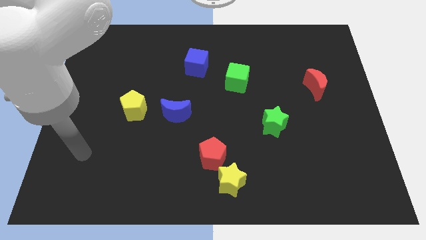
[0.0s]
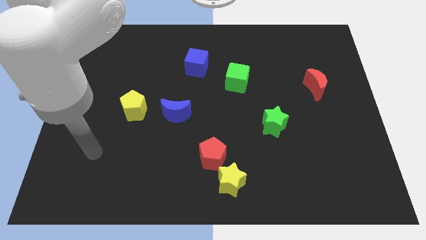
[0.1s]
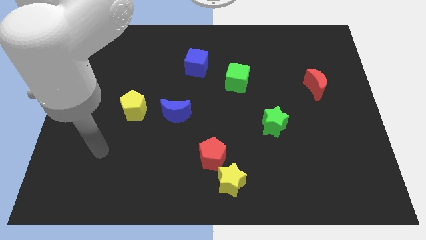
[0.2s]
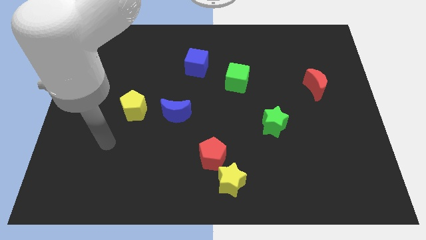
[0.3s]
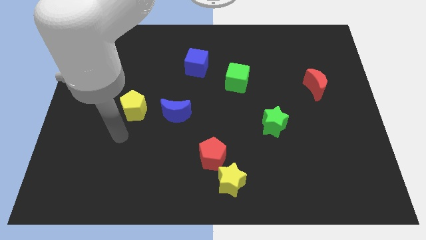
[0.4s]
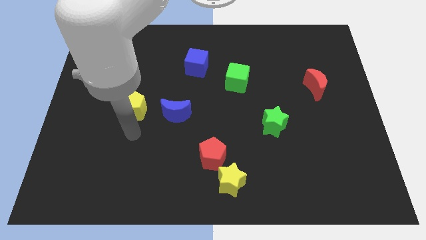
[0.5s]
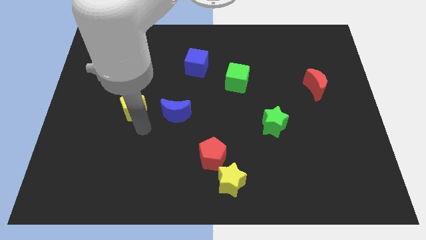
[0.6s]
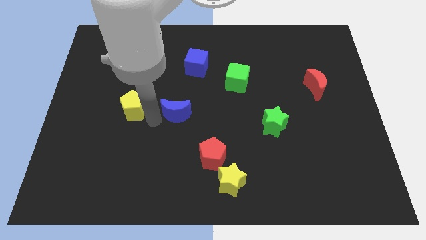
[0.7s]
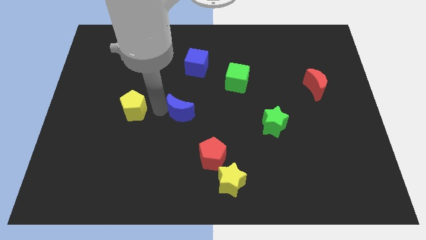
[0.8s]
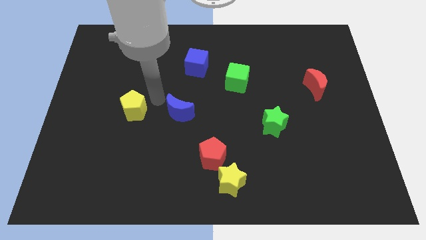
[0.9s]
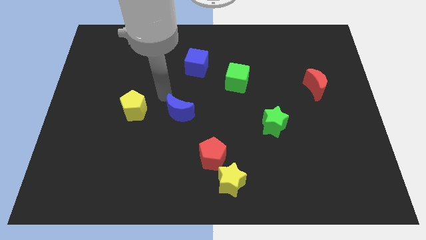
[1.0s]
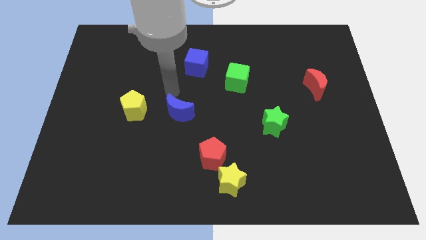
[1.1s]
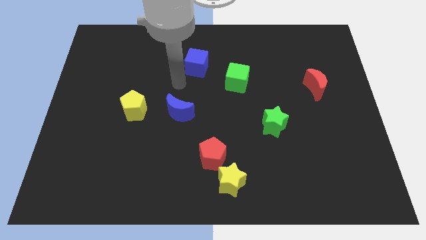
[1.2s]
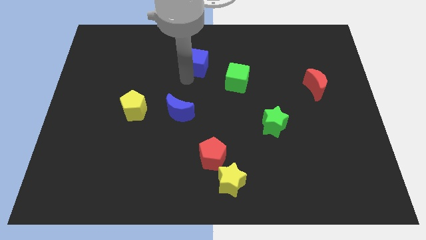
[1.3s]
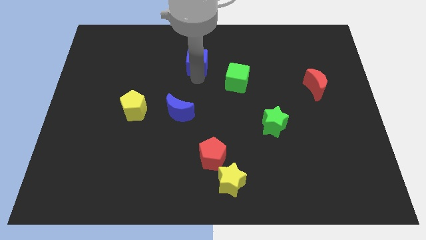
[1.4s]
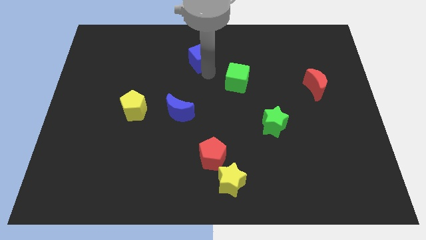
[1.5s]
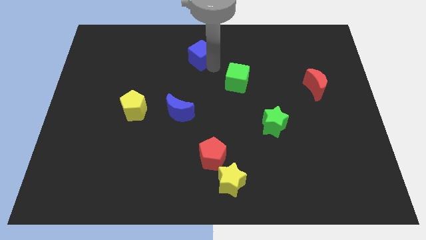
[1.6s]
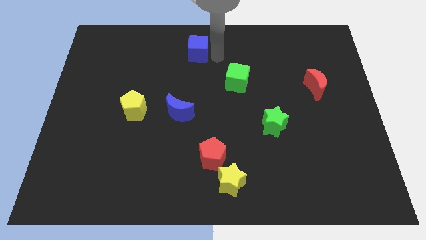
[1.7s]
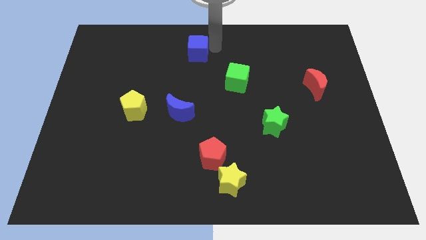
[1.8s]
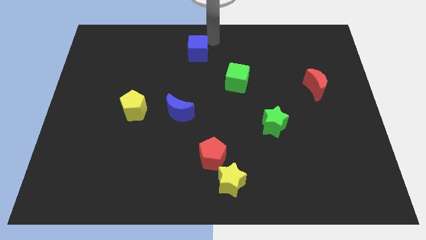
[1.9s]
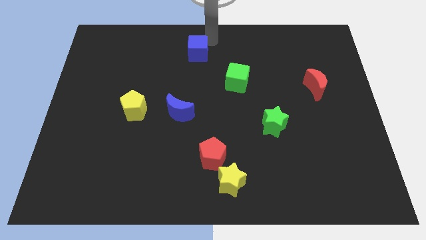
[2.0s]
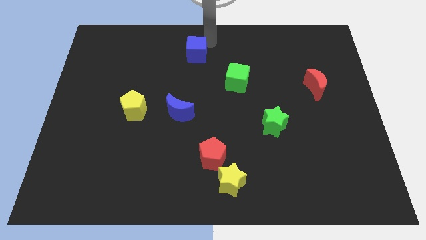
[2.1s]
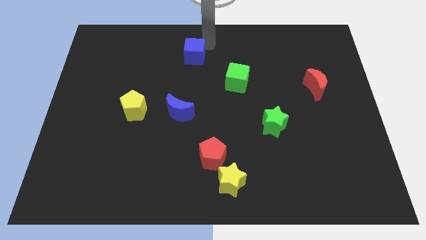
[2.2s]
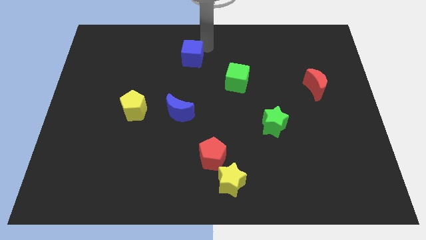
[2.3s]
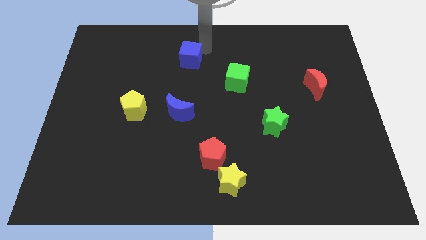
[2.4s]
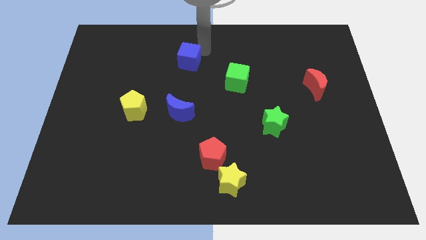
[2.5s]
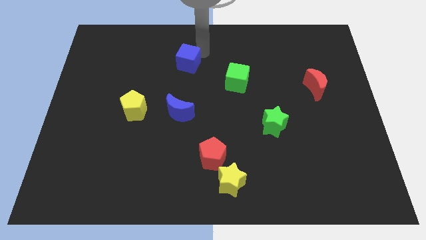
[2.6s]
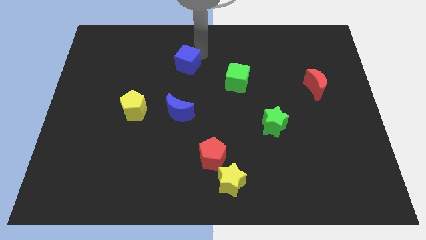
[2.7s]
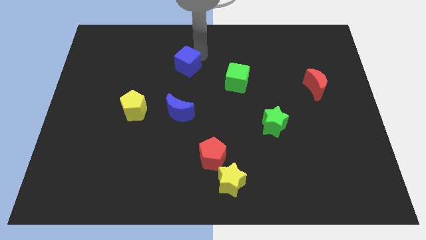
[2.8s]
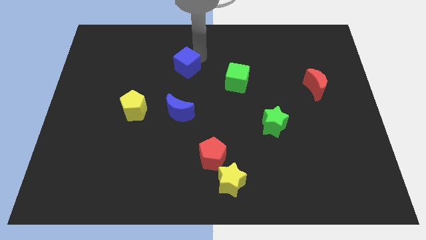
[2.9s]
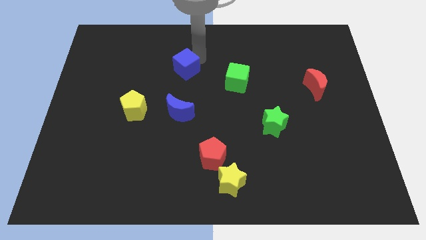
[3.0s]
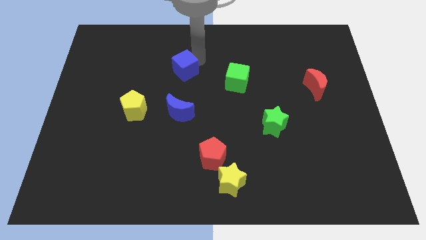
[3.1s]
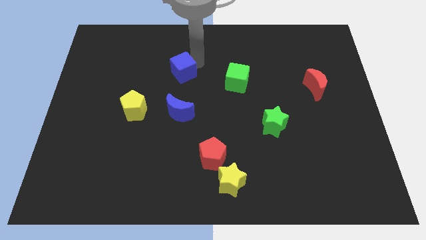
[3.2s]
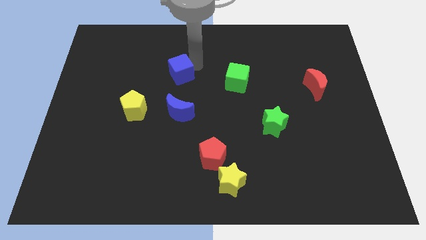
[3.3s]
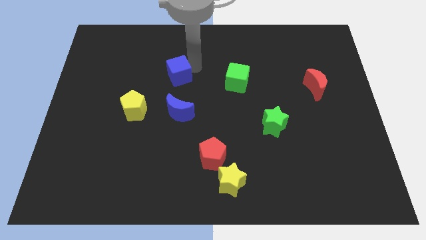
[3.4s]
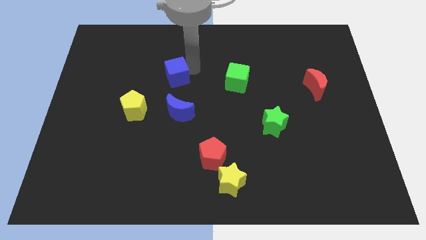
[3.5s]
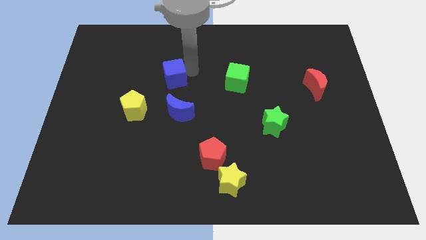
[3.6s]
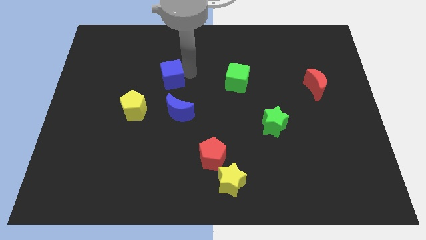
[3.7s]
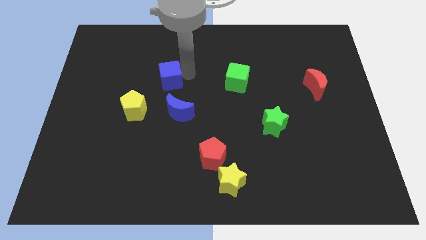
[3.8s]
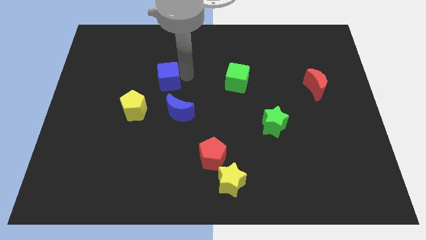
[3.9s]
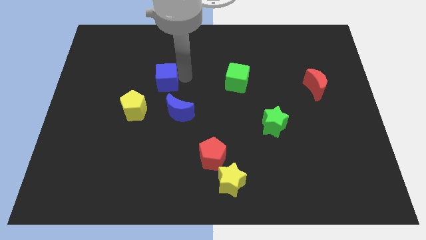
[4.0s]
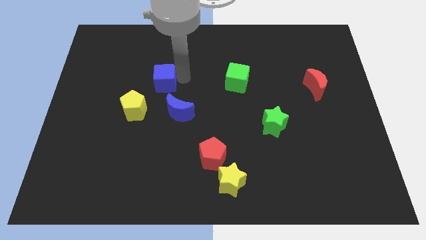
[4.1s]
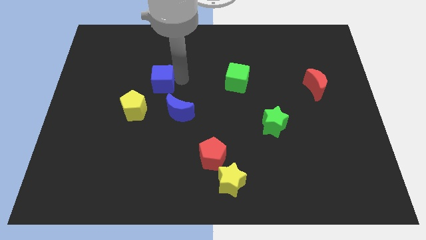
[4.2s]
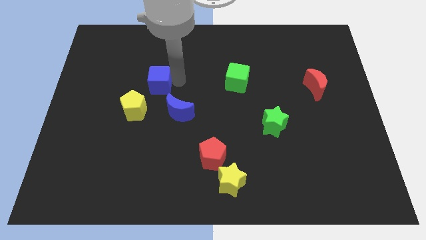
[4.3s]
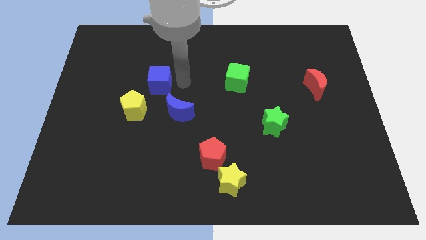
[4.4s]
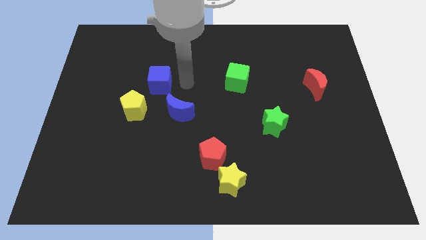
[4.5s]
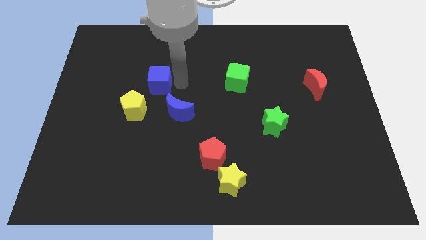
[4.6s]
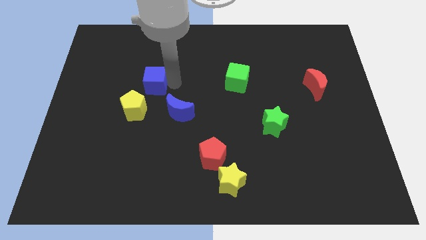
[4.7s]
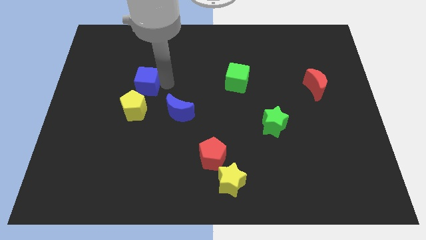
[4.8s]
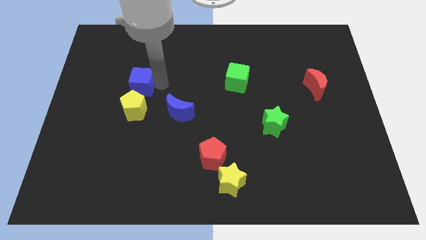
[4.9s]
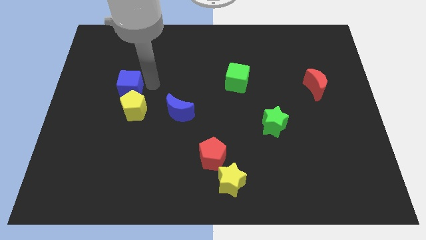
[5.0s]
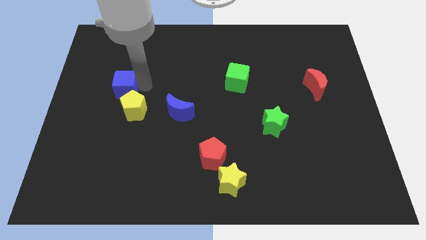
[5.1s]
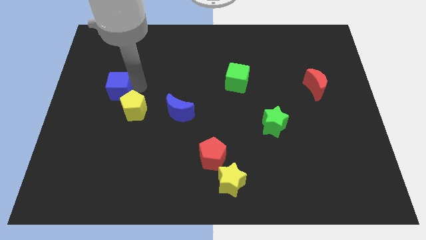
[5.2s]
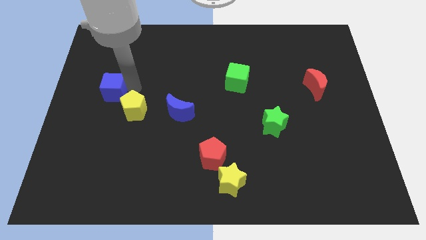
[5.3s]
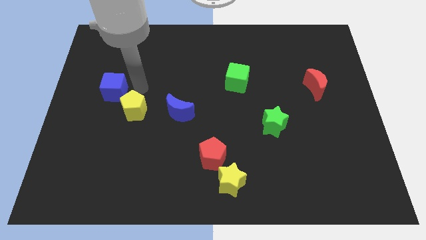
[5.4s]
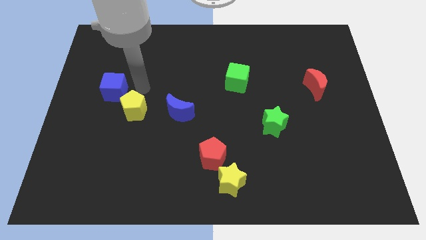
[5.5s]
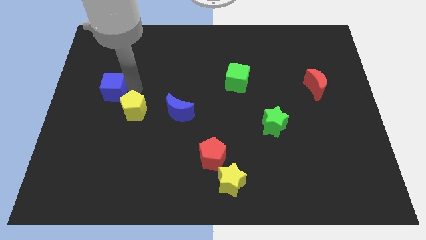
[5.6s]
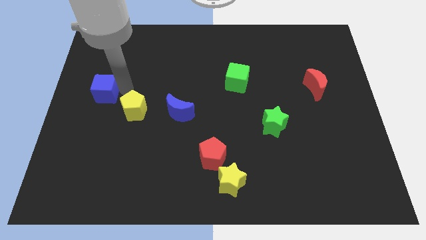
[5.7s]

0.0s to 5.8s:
put the blue cube to the left side

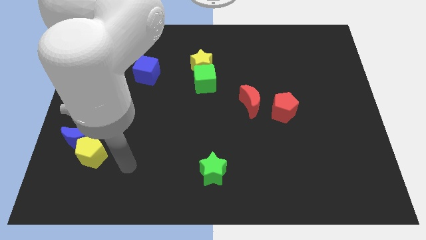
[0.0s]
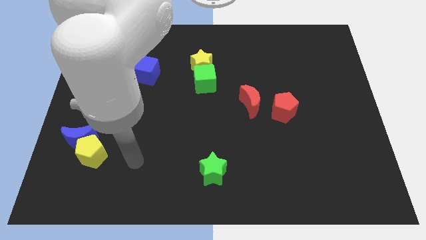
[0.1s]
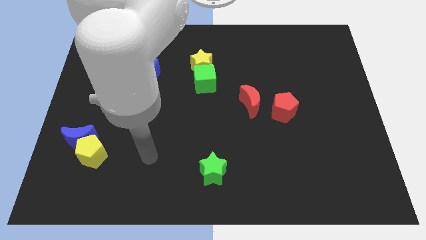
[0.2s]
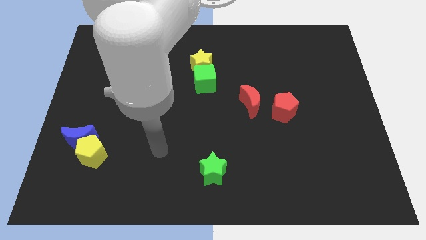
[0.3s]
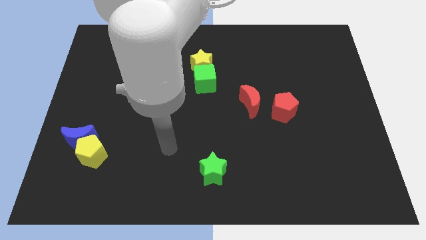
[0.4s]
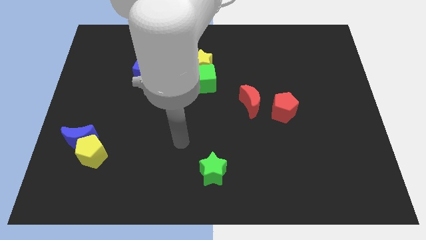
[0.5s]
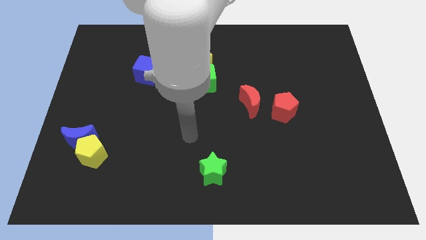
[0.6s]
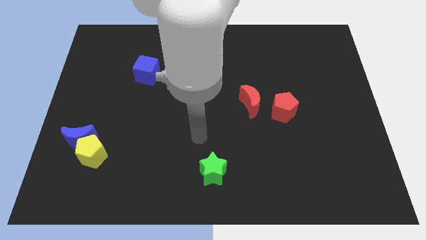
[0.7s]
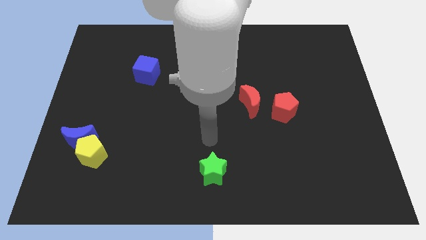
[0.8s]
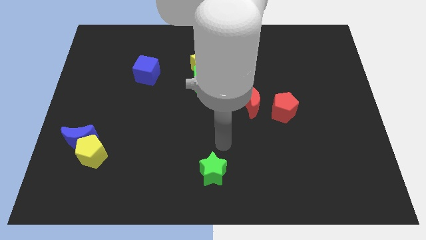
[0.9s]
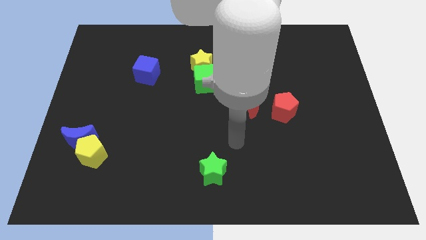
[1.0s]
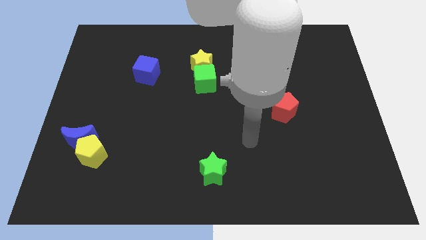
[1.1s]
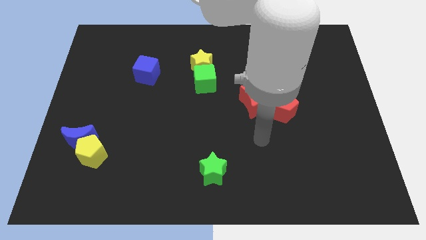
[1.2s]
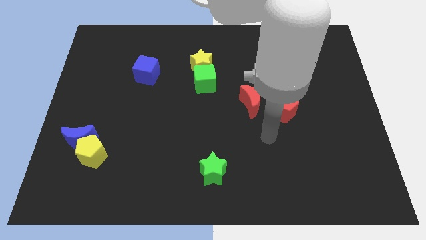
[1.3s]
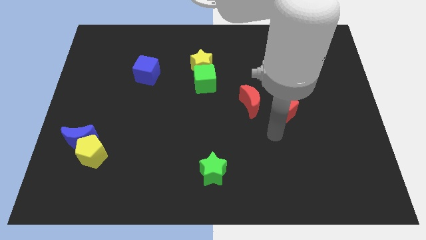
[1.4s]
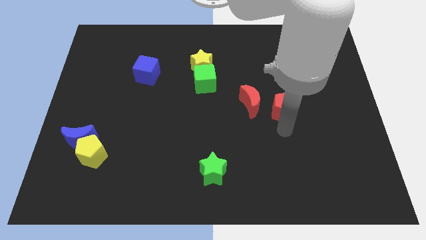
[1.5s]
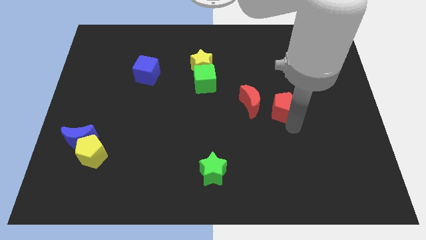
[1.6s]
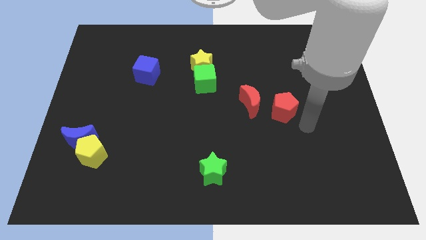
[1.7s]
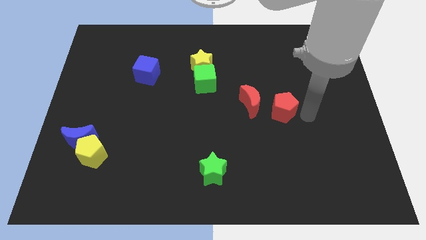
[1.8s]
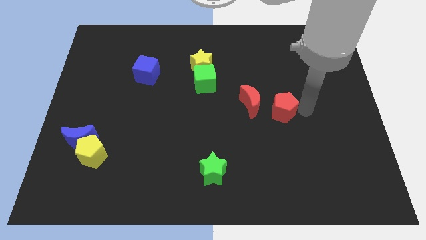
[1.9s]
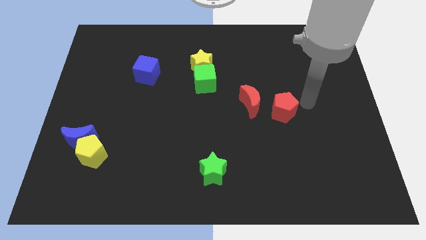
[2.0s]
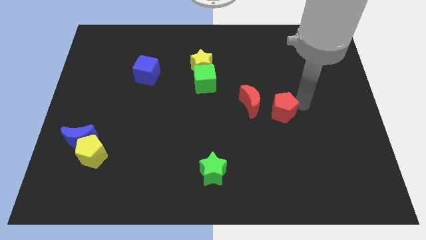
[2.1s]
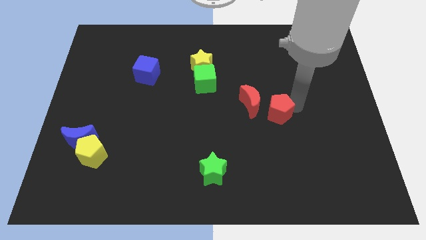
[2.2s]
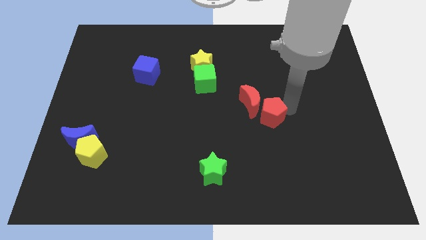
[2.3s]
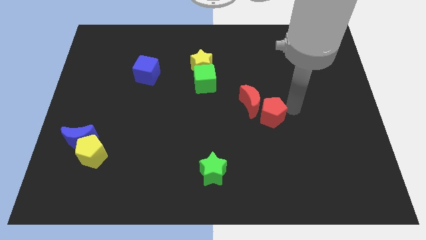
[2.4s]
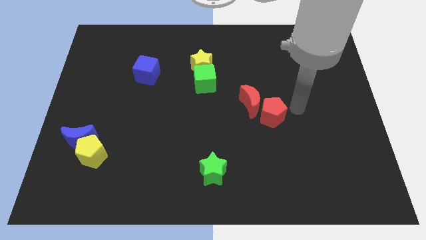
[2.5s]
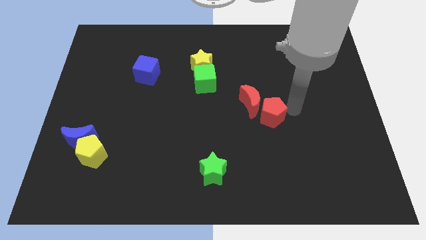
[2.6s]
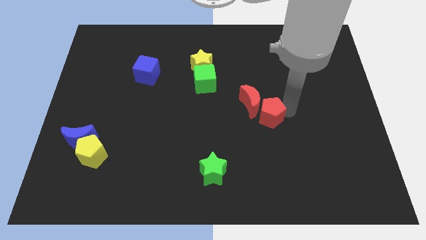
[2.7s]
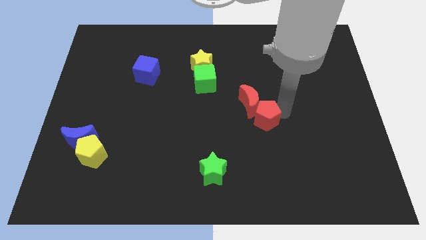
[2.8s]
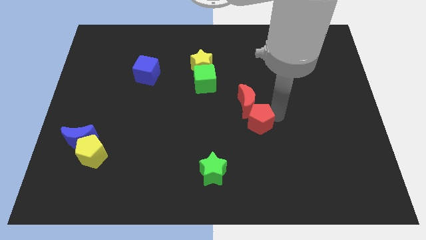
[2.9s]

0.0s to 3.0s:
push the red pentagon to the center
